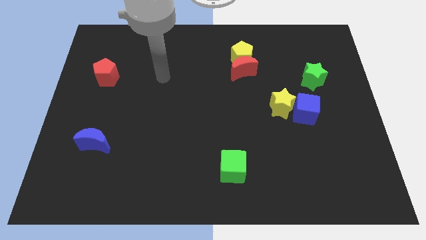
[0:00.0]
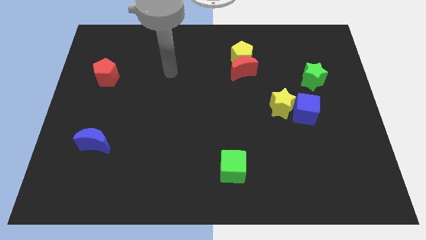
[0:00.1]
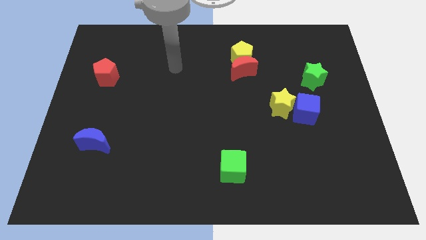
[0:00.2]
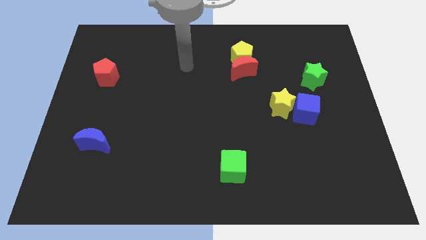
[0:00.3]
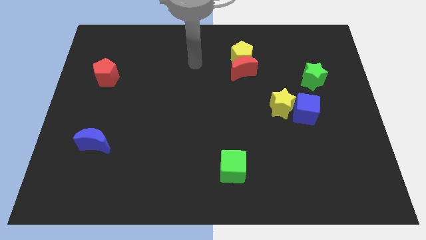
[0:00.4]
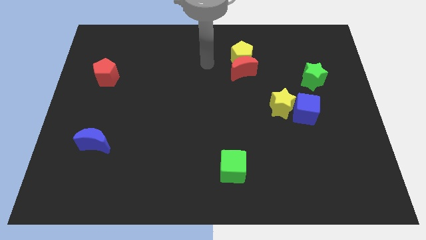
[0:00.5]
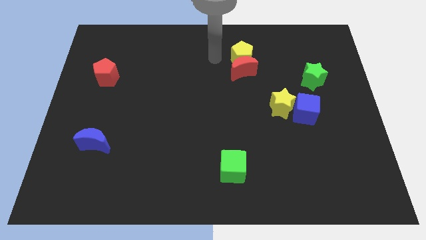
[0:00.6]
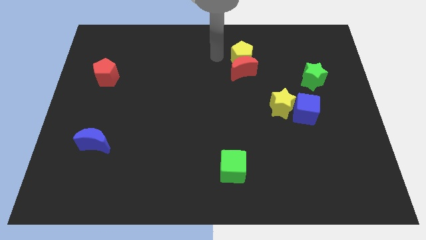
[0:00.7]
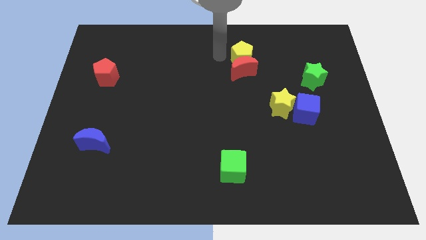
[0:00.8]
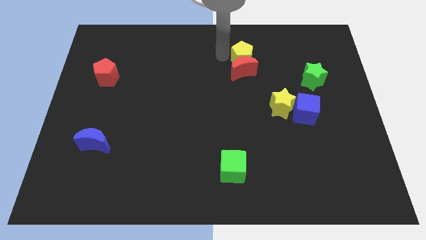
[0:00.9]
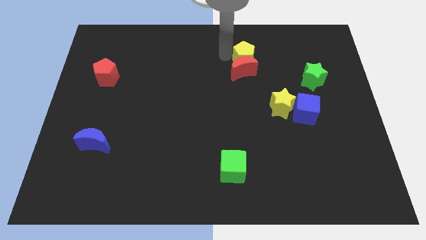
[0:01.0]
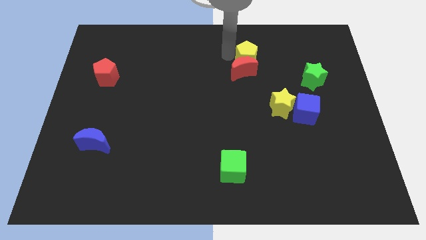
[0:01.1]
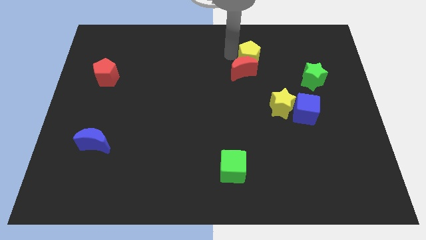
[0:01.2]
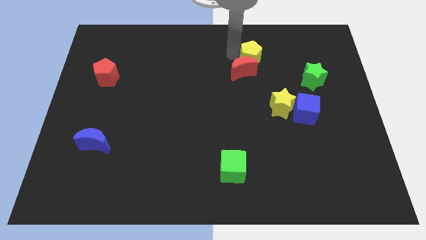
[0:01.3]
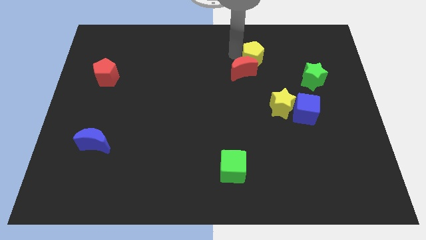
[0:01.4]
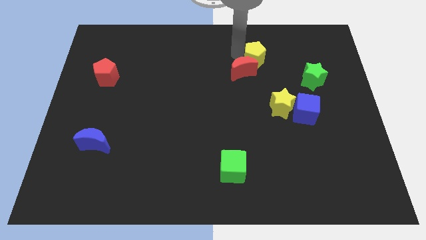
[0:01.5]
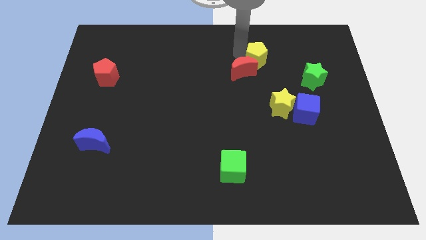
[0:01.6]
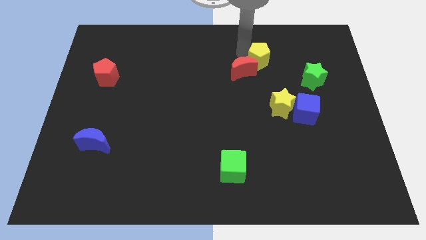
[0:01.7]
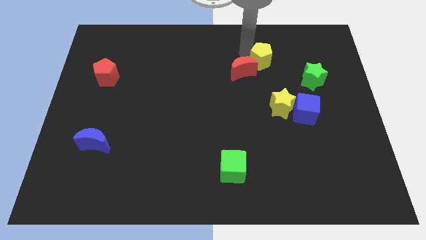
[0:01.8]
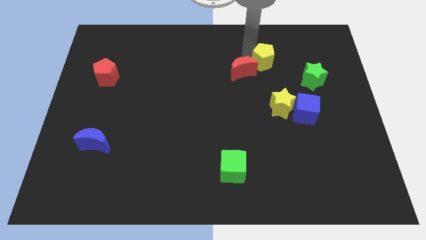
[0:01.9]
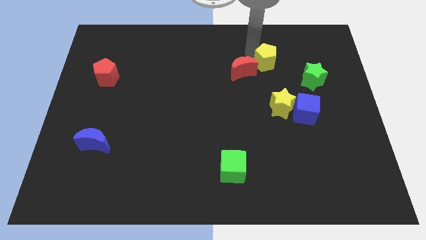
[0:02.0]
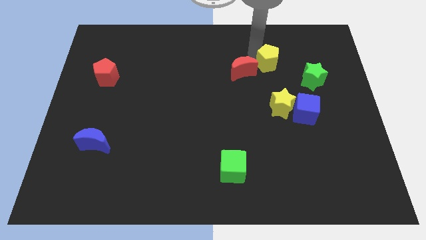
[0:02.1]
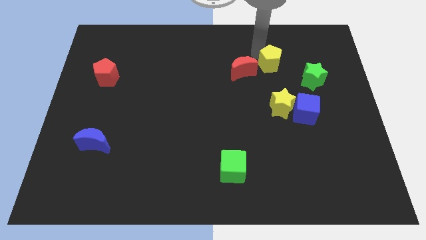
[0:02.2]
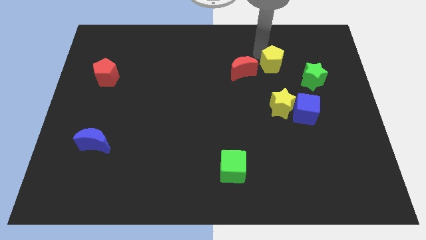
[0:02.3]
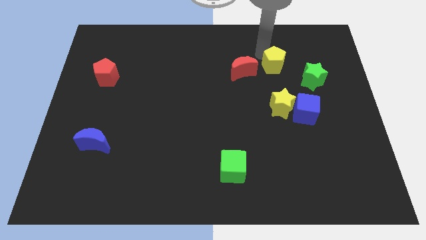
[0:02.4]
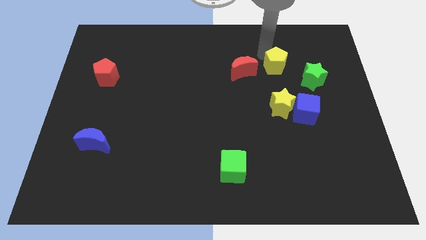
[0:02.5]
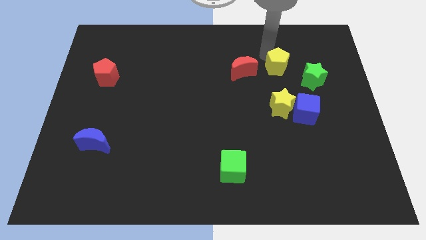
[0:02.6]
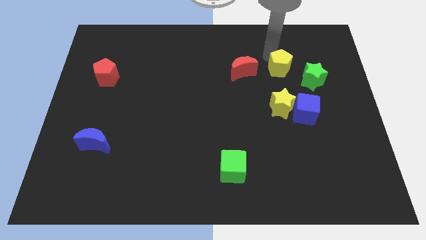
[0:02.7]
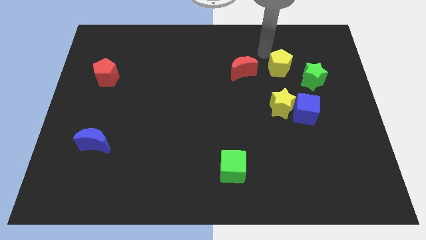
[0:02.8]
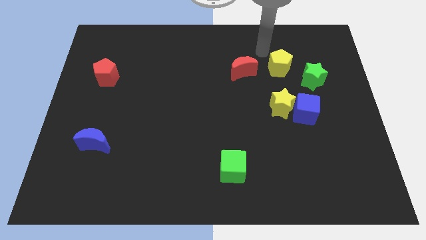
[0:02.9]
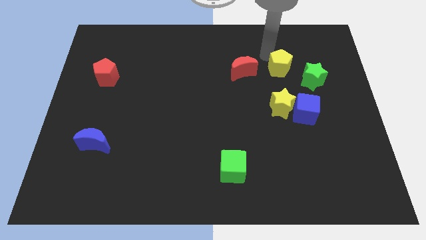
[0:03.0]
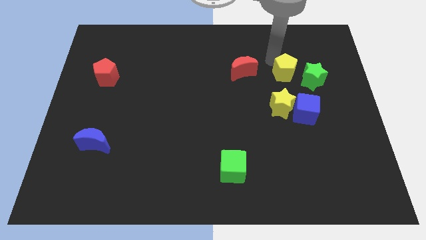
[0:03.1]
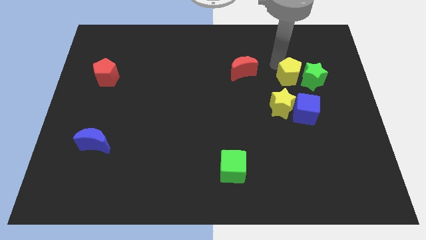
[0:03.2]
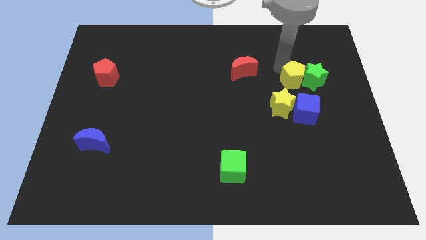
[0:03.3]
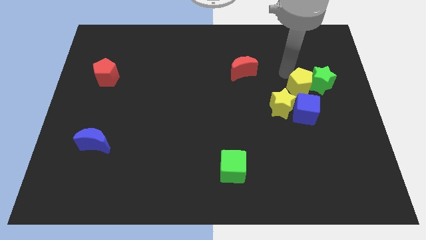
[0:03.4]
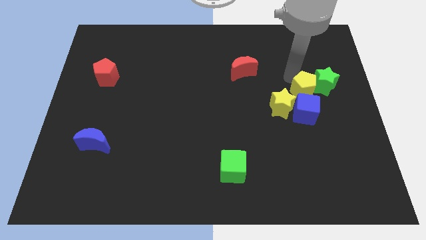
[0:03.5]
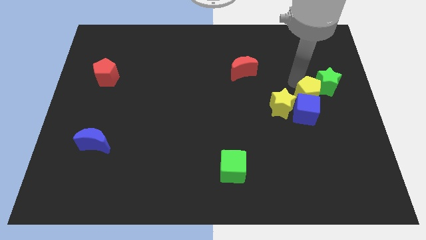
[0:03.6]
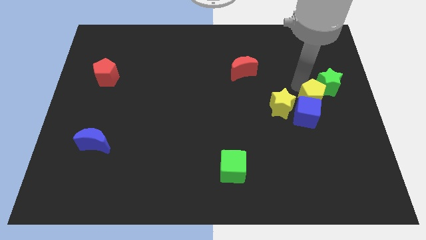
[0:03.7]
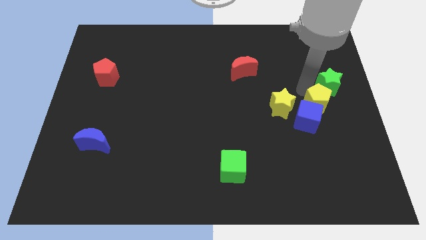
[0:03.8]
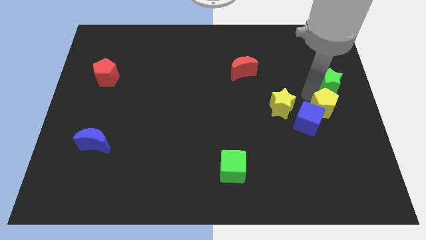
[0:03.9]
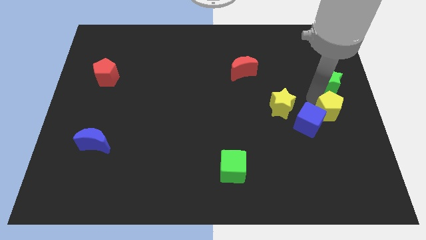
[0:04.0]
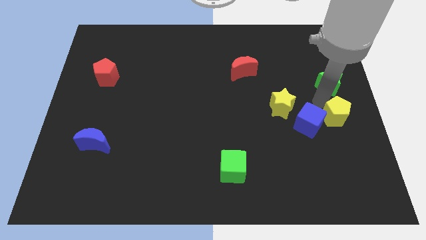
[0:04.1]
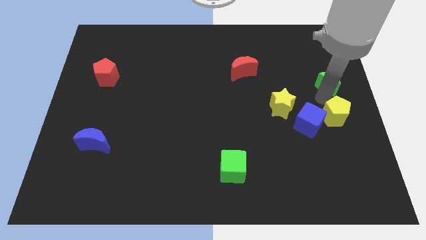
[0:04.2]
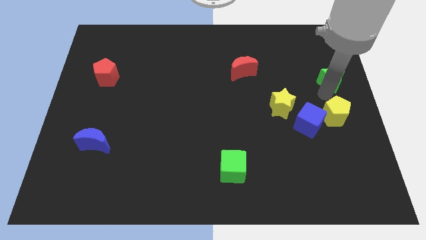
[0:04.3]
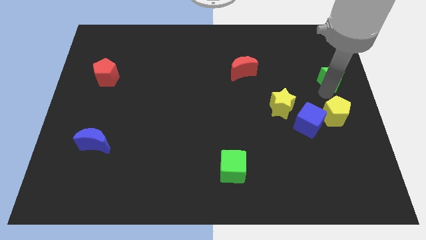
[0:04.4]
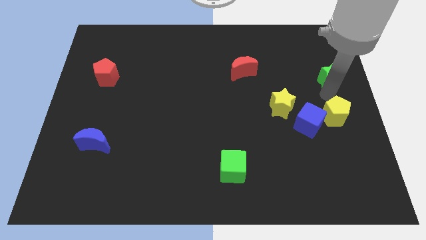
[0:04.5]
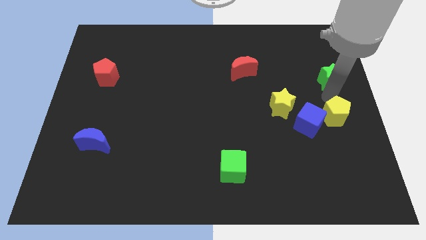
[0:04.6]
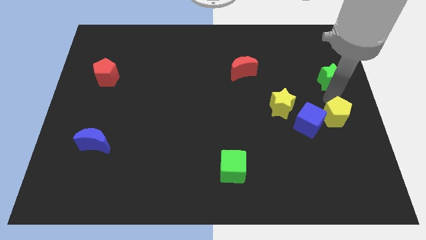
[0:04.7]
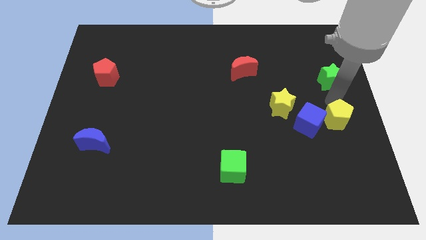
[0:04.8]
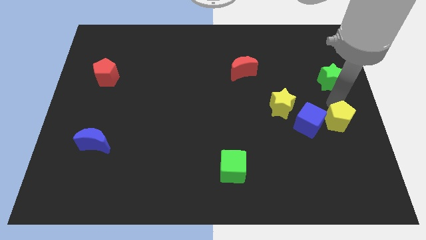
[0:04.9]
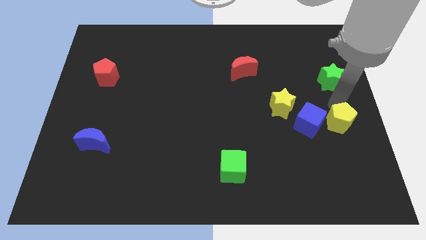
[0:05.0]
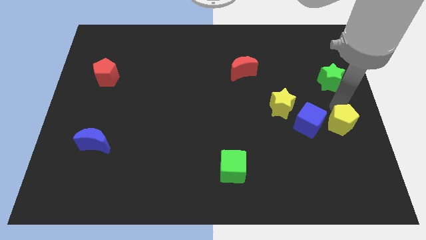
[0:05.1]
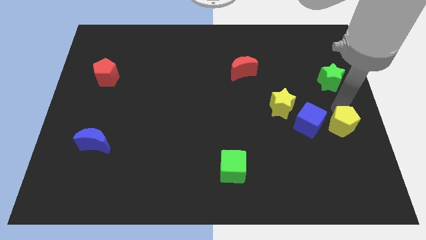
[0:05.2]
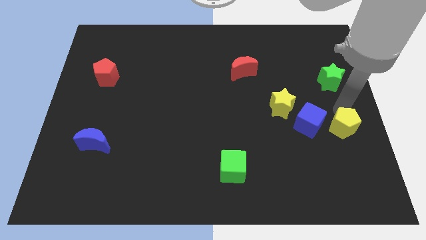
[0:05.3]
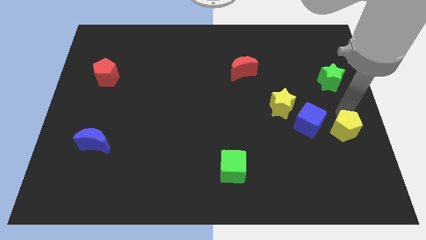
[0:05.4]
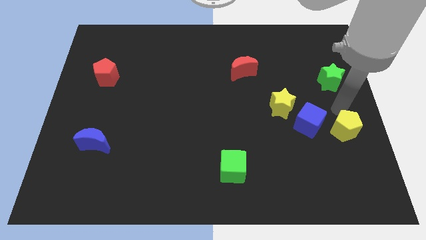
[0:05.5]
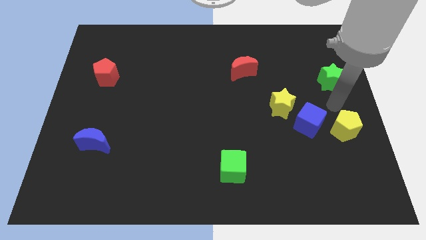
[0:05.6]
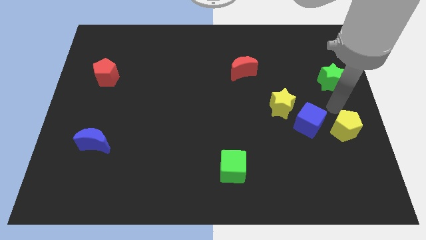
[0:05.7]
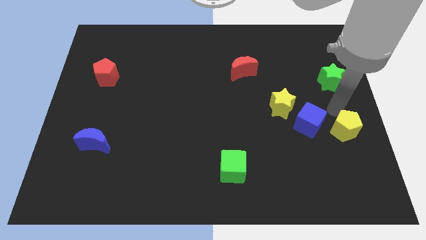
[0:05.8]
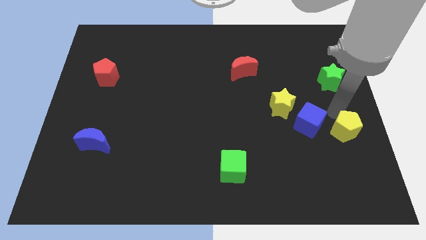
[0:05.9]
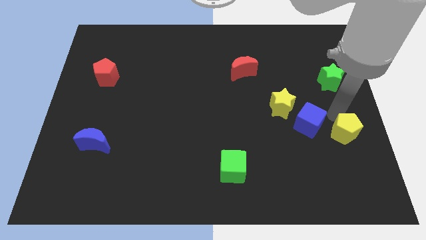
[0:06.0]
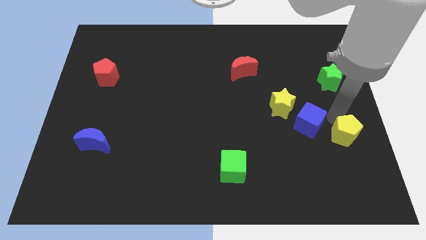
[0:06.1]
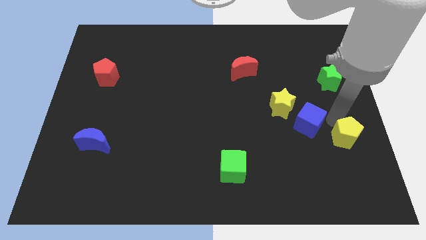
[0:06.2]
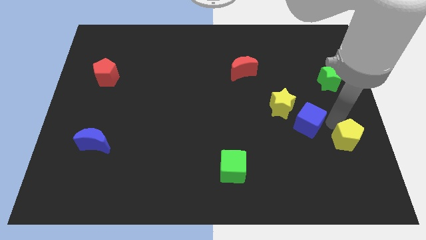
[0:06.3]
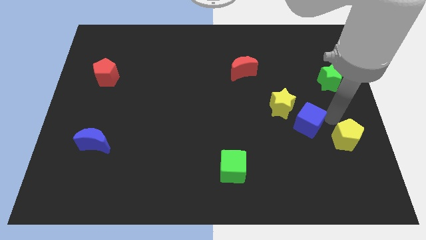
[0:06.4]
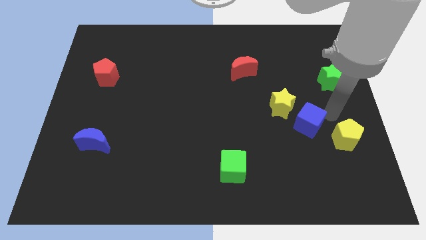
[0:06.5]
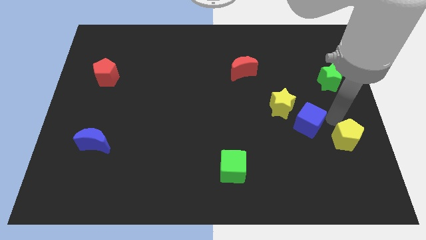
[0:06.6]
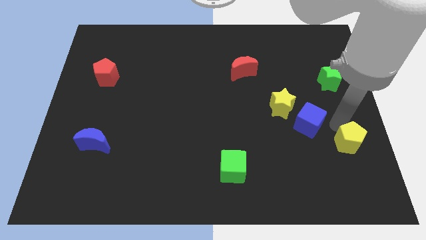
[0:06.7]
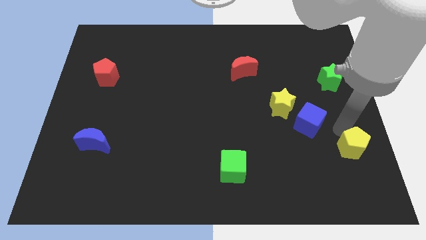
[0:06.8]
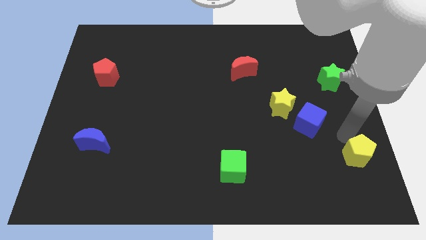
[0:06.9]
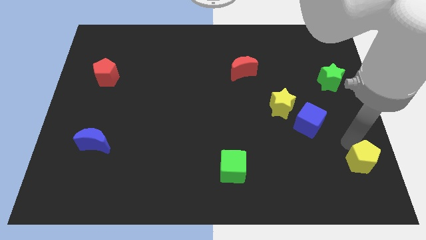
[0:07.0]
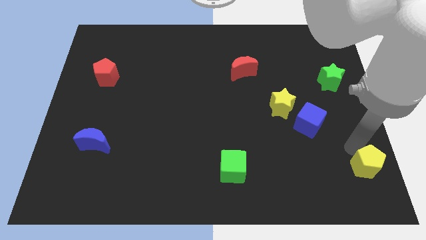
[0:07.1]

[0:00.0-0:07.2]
move the yellow pentagon to the bottom right

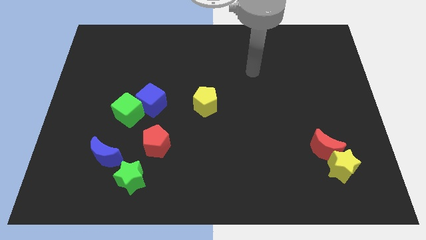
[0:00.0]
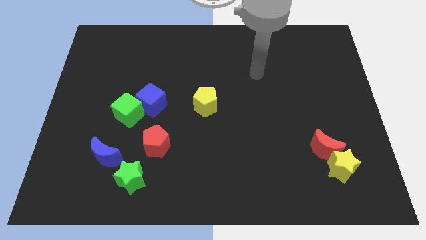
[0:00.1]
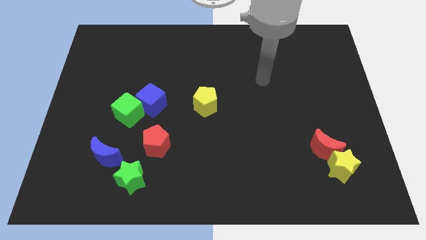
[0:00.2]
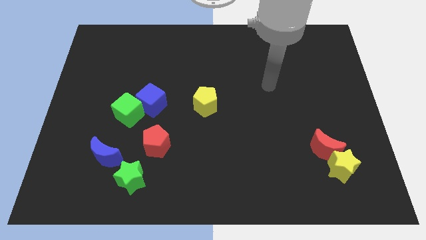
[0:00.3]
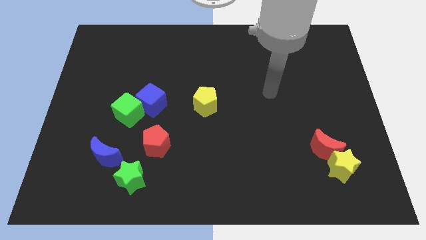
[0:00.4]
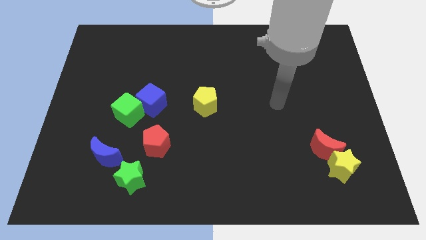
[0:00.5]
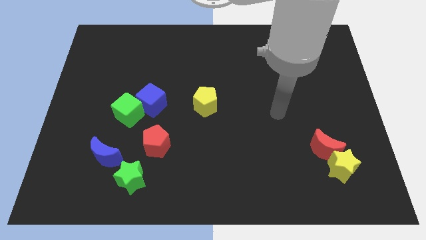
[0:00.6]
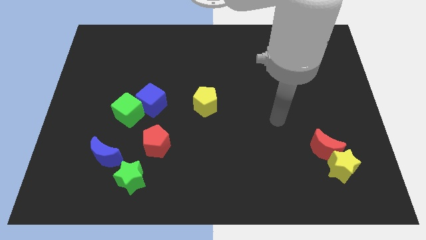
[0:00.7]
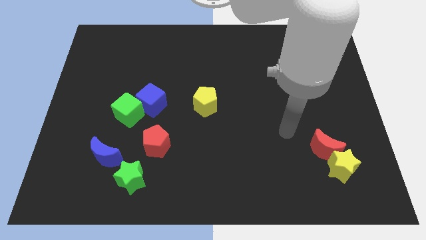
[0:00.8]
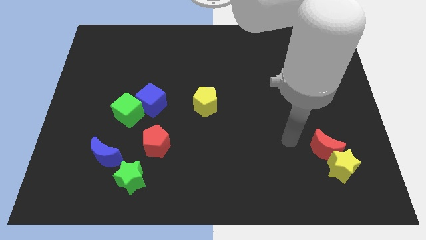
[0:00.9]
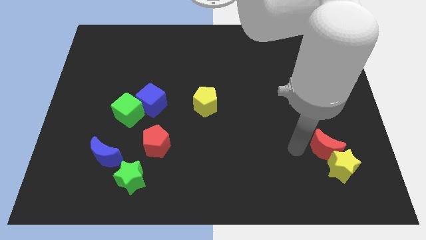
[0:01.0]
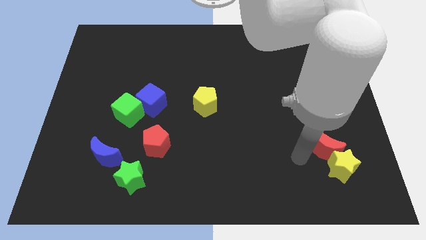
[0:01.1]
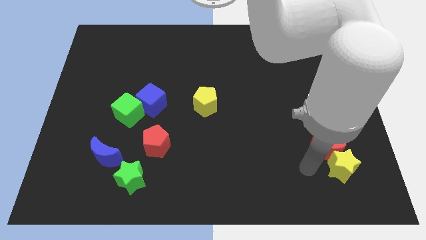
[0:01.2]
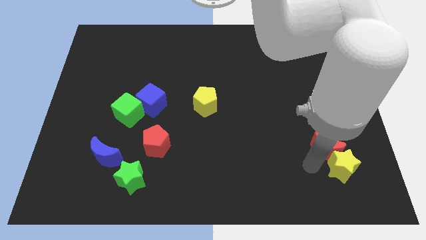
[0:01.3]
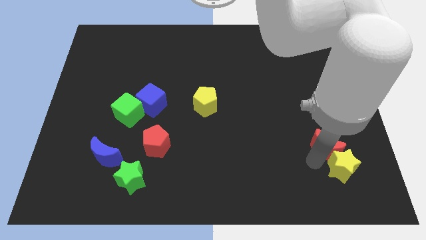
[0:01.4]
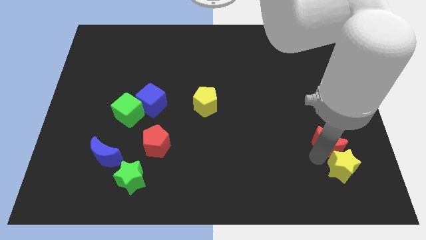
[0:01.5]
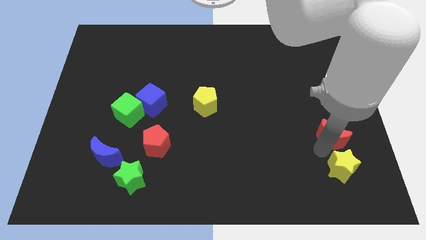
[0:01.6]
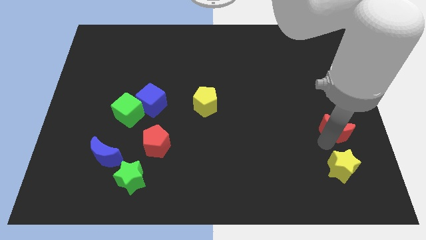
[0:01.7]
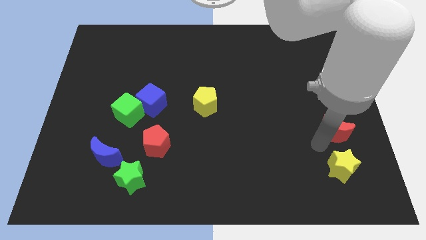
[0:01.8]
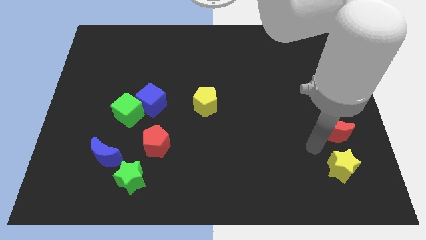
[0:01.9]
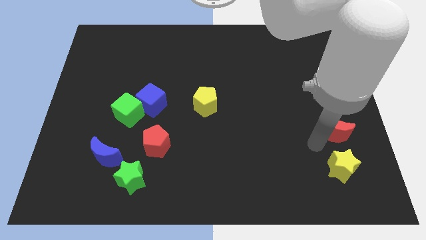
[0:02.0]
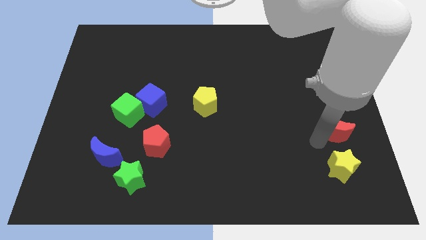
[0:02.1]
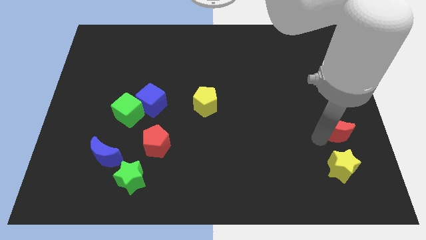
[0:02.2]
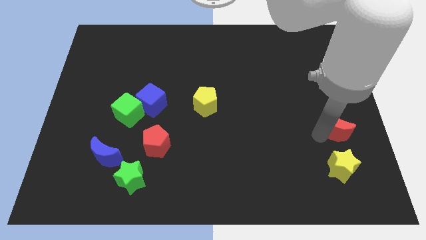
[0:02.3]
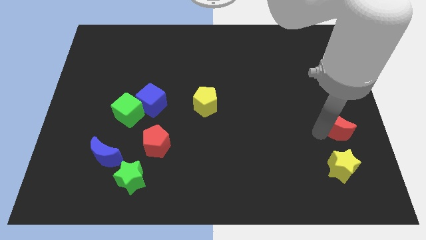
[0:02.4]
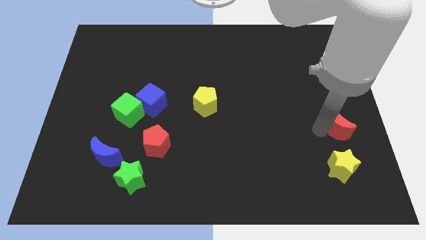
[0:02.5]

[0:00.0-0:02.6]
slide the red moon to the center right
